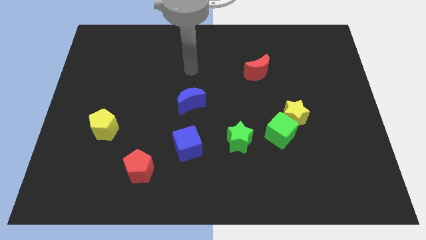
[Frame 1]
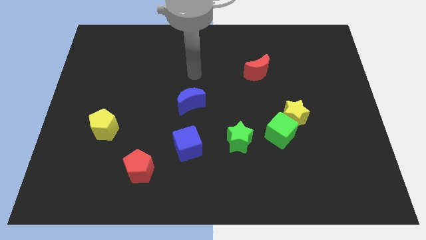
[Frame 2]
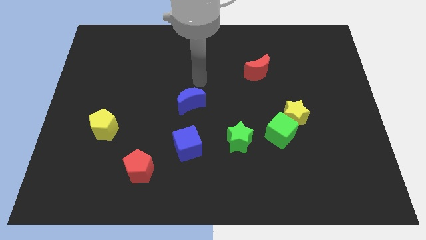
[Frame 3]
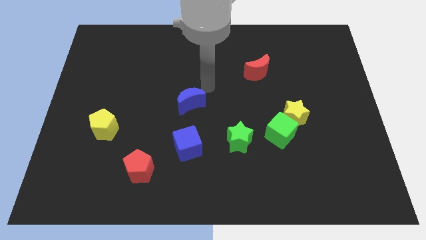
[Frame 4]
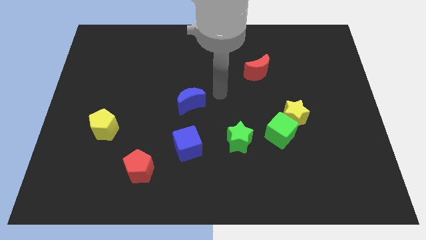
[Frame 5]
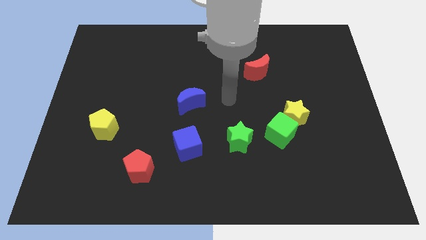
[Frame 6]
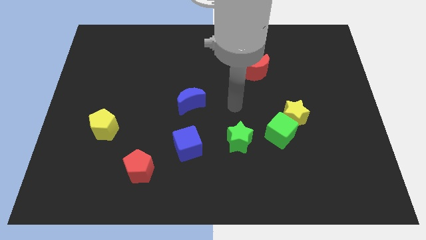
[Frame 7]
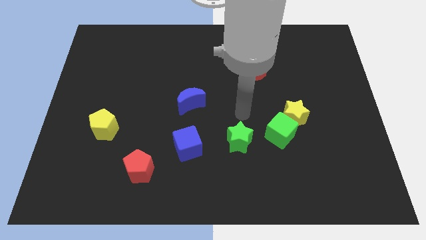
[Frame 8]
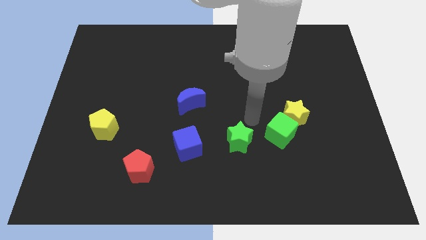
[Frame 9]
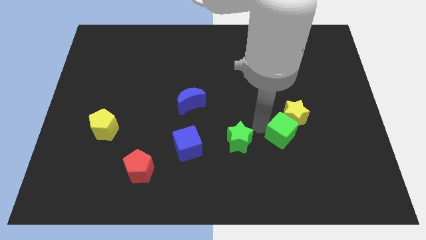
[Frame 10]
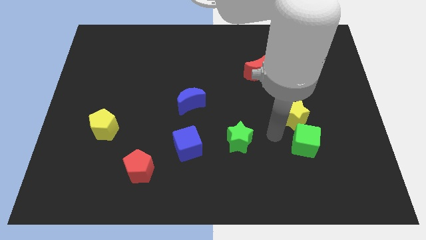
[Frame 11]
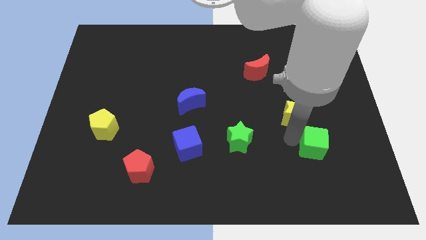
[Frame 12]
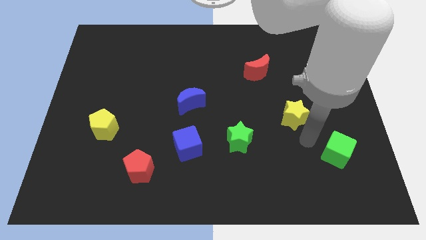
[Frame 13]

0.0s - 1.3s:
move the yellow star away from the green cube

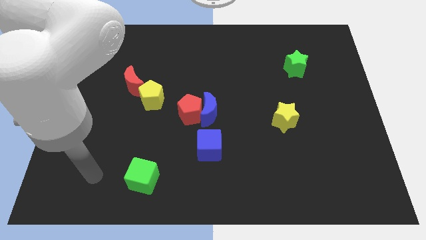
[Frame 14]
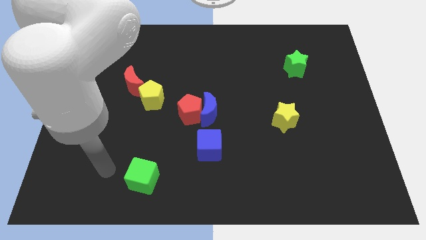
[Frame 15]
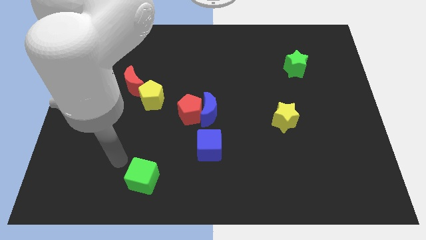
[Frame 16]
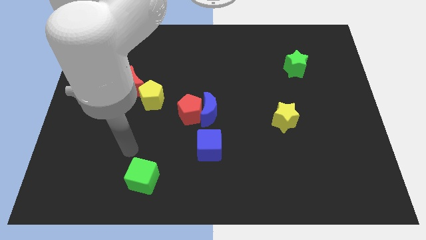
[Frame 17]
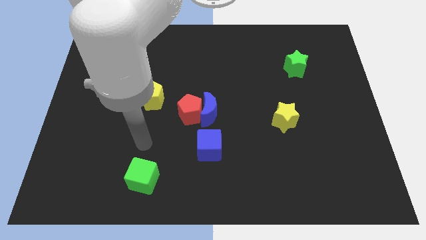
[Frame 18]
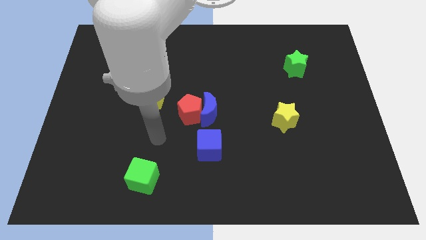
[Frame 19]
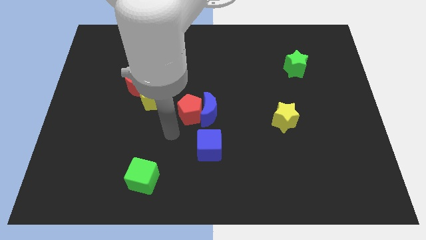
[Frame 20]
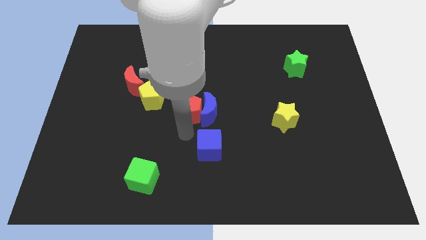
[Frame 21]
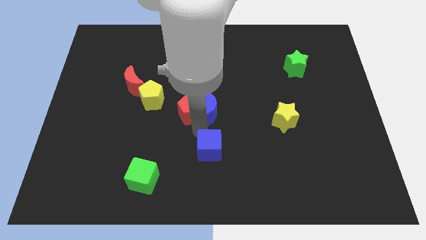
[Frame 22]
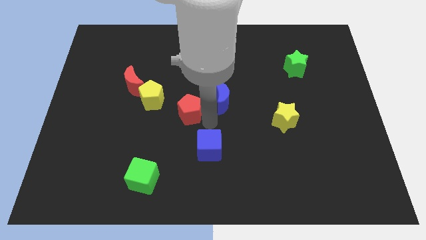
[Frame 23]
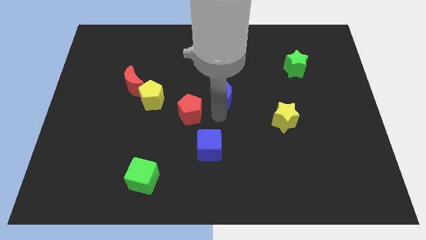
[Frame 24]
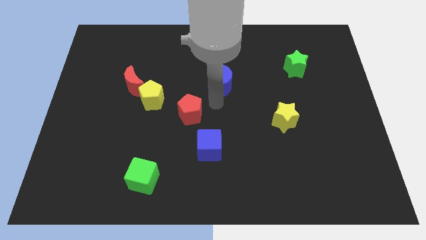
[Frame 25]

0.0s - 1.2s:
move the red pentagon away from the blue moon

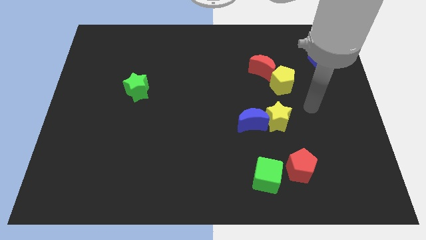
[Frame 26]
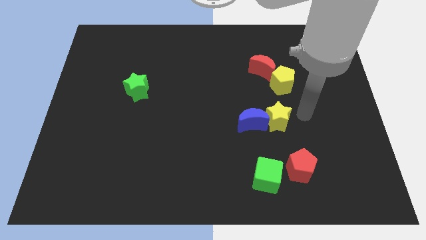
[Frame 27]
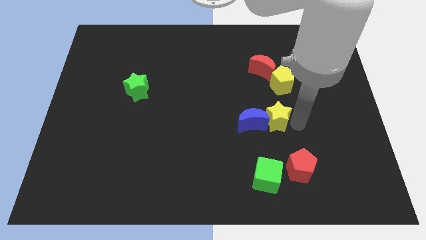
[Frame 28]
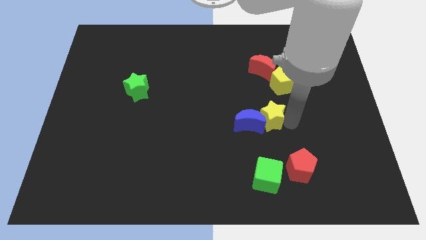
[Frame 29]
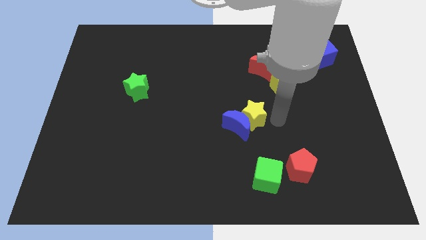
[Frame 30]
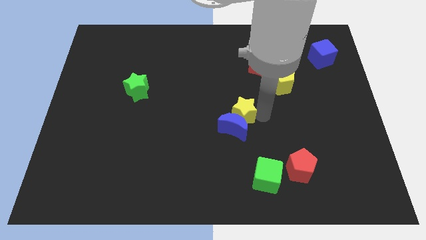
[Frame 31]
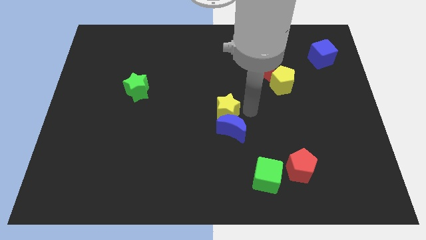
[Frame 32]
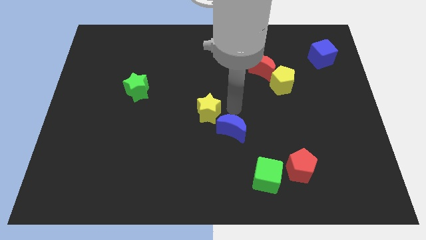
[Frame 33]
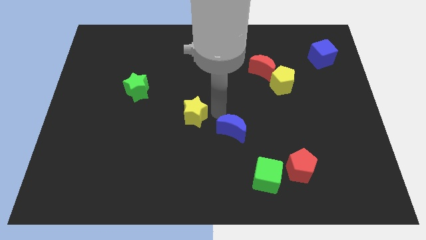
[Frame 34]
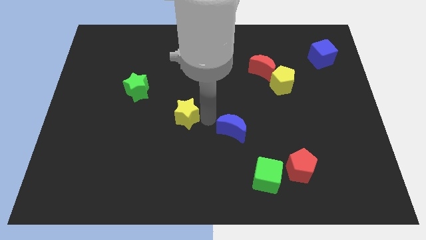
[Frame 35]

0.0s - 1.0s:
move the blue moon away from the yellow star

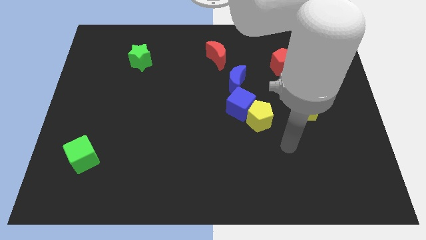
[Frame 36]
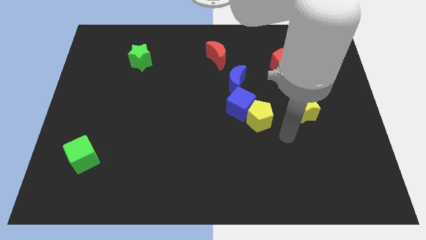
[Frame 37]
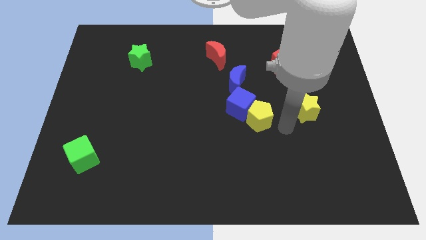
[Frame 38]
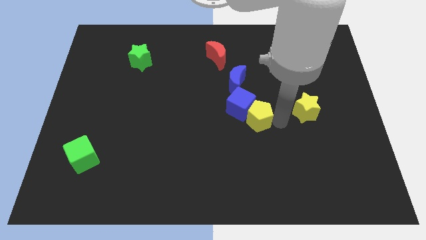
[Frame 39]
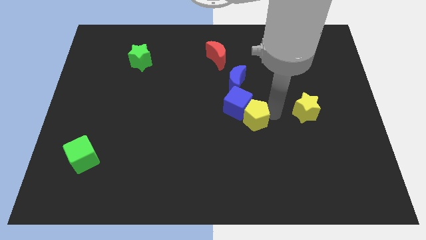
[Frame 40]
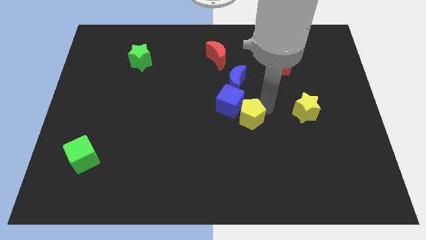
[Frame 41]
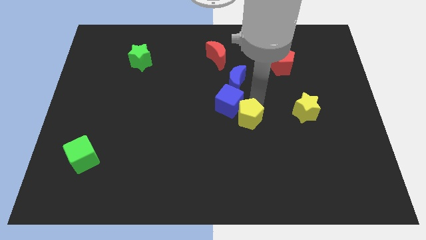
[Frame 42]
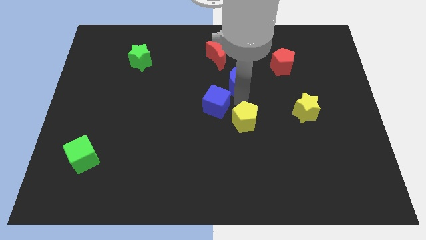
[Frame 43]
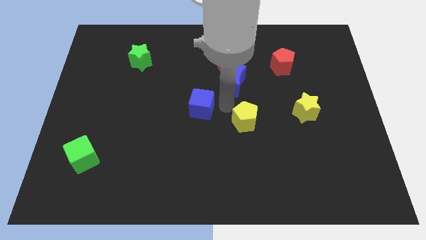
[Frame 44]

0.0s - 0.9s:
move the yellow pentagon away from the blue cube

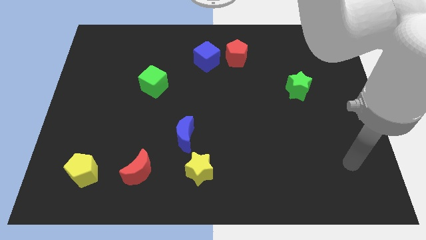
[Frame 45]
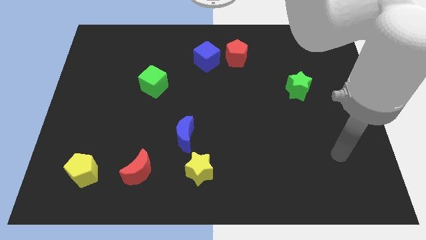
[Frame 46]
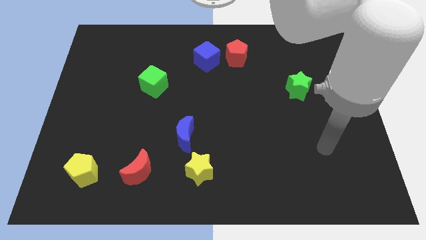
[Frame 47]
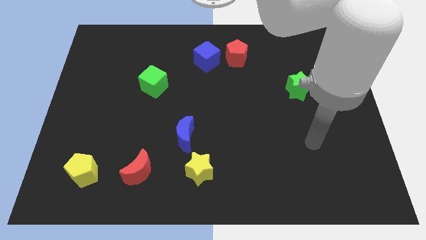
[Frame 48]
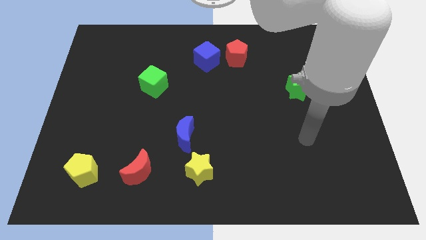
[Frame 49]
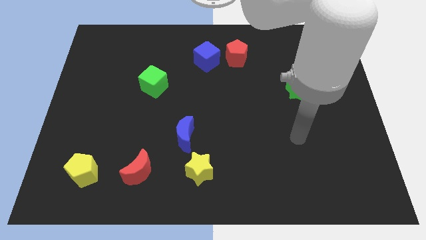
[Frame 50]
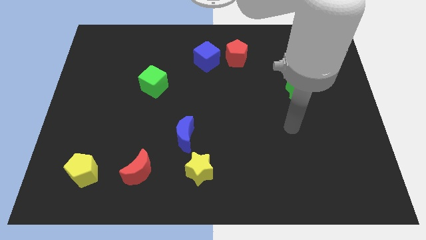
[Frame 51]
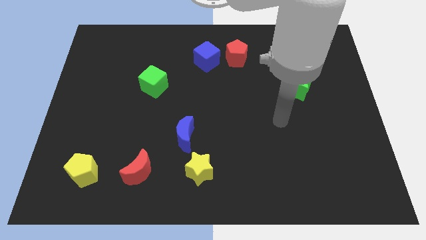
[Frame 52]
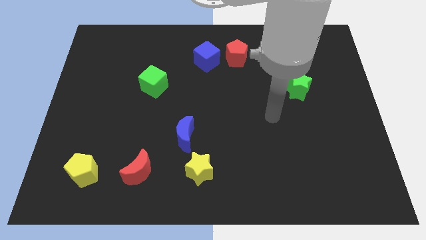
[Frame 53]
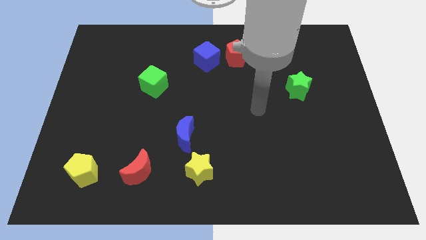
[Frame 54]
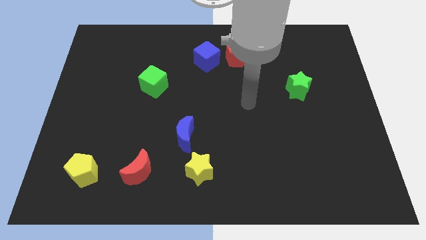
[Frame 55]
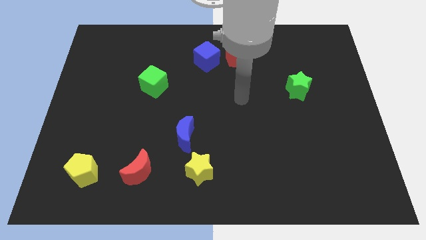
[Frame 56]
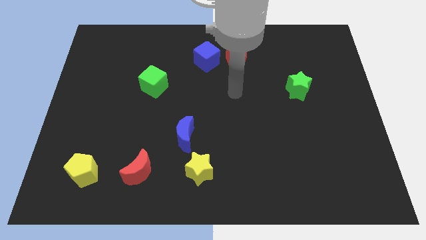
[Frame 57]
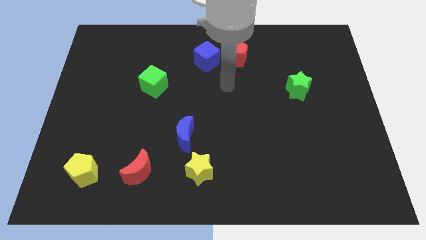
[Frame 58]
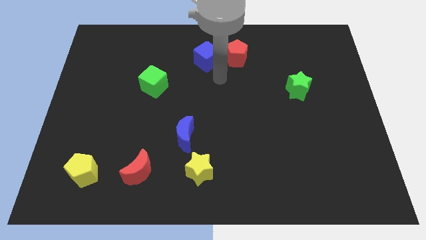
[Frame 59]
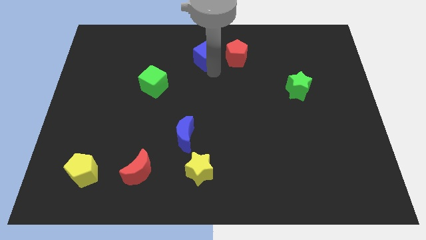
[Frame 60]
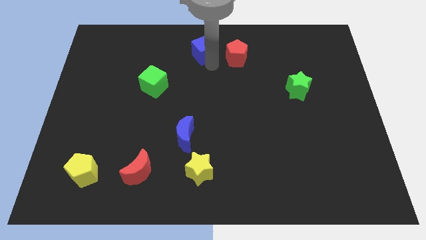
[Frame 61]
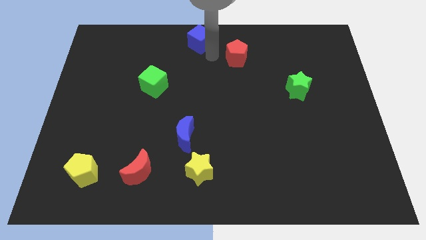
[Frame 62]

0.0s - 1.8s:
pull the red pentagon apart from the blue cube

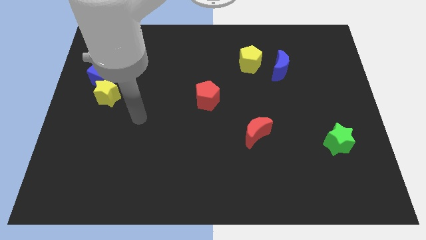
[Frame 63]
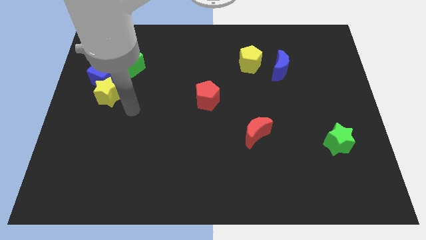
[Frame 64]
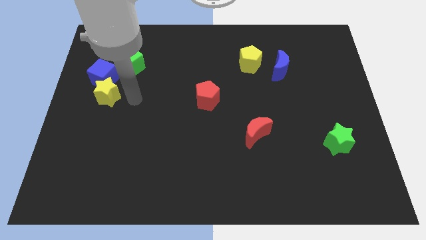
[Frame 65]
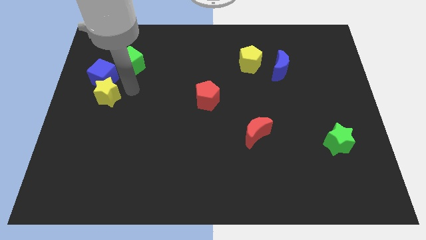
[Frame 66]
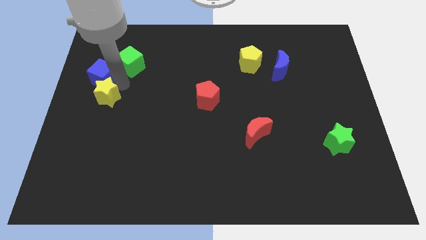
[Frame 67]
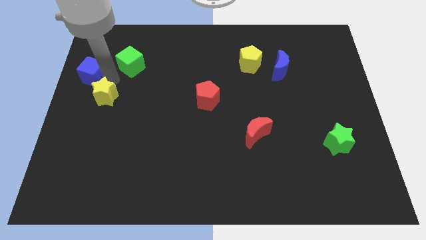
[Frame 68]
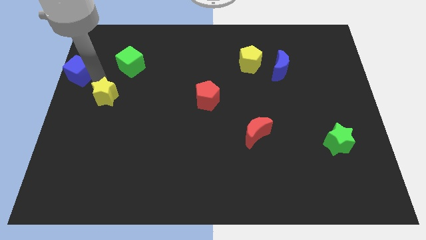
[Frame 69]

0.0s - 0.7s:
move the yellow star away from the blue cube

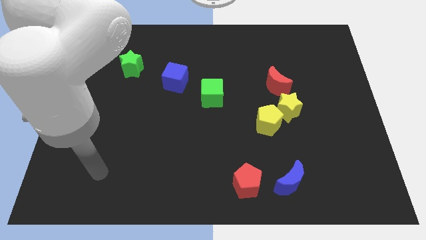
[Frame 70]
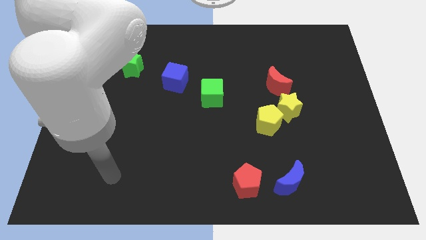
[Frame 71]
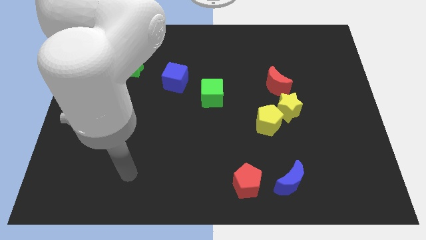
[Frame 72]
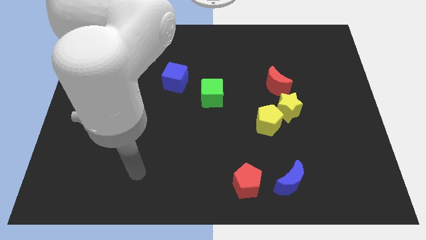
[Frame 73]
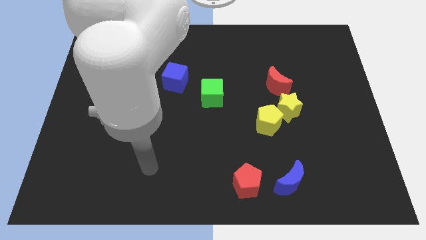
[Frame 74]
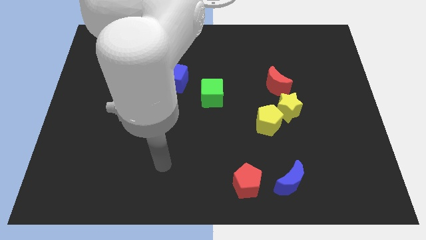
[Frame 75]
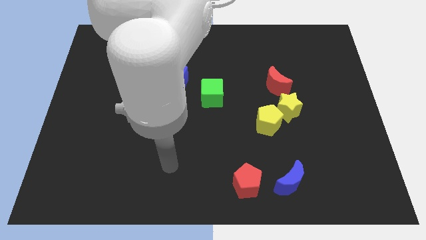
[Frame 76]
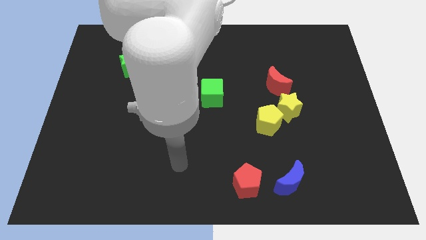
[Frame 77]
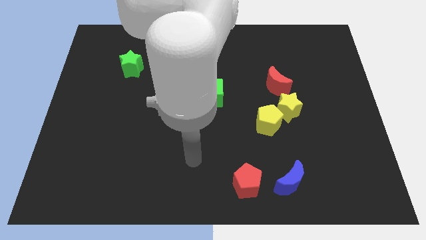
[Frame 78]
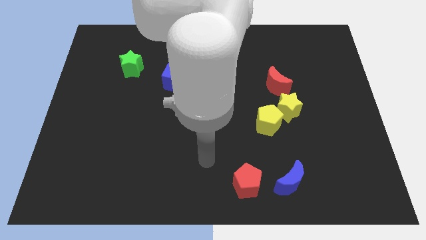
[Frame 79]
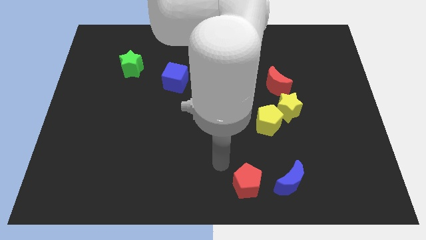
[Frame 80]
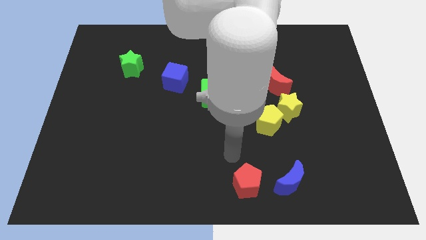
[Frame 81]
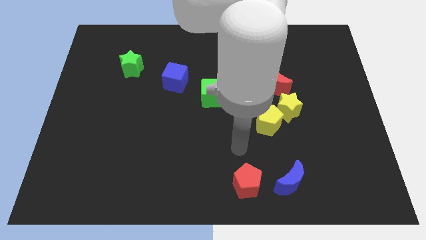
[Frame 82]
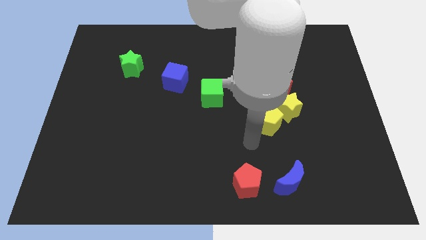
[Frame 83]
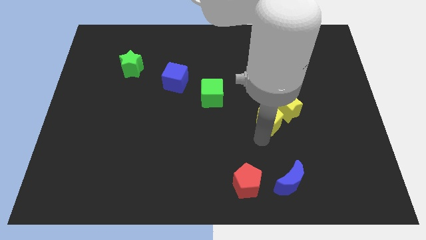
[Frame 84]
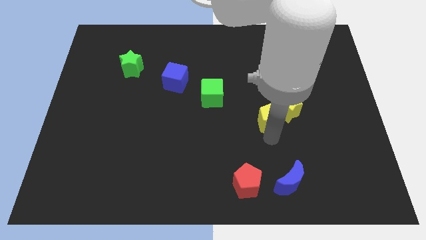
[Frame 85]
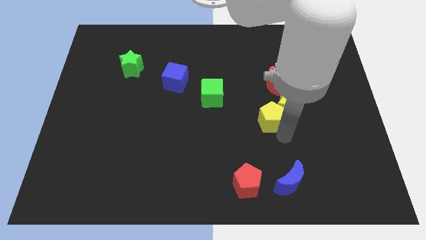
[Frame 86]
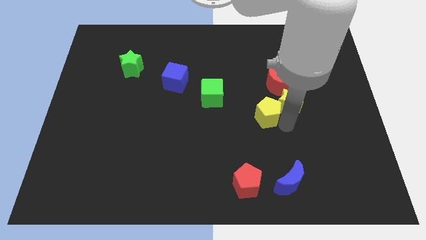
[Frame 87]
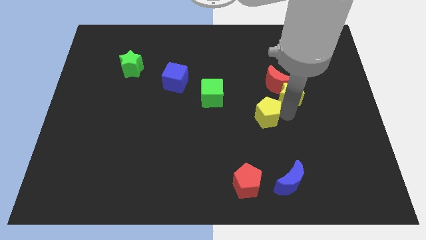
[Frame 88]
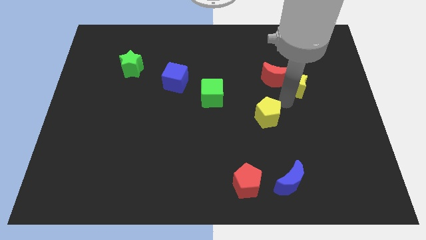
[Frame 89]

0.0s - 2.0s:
separate the yellow pentagon from the yellow star

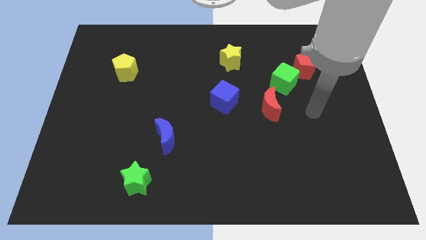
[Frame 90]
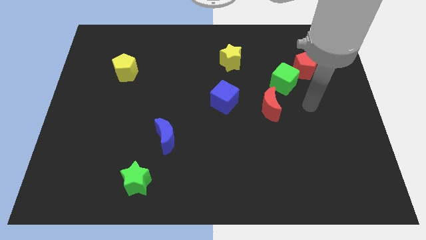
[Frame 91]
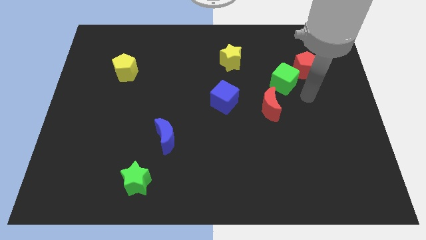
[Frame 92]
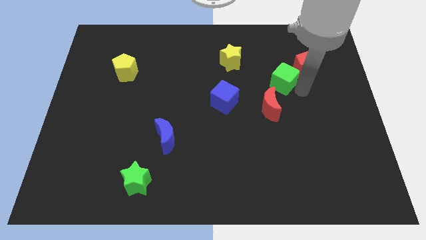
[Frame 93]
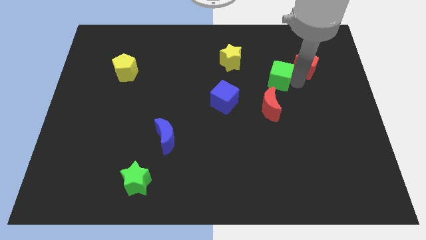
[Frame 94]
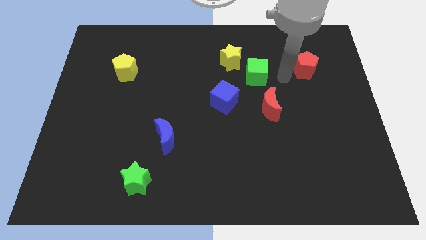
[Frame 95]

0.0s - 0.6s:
pull the red pentagon apart from the green cube

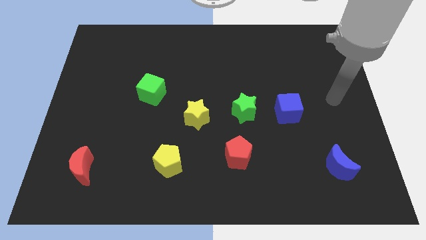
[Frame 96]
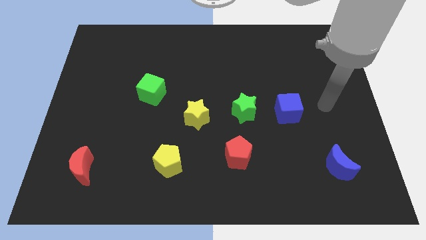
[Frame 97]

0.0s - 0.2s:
pull the blue cube apart from the green star
